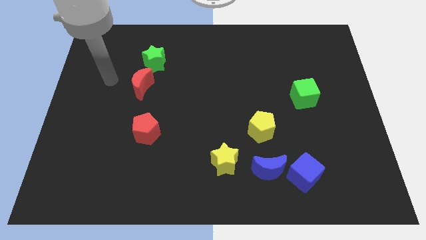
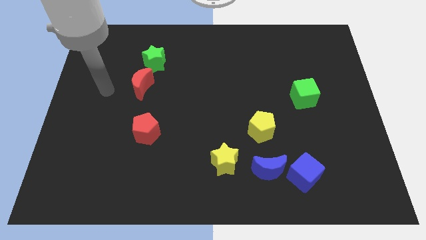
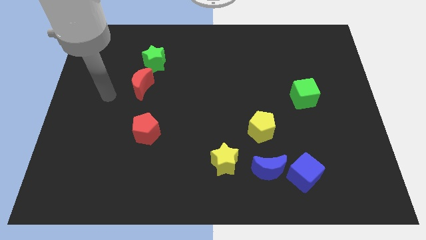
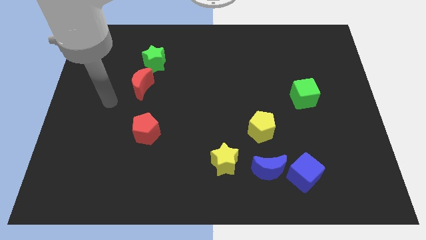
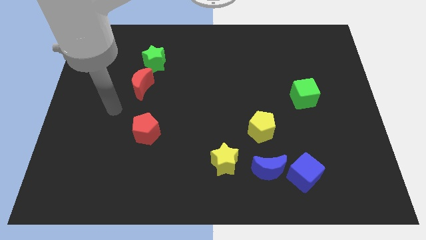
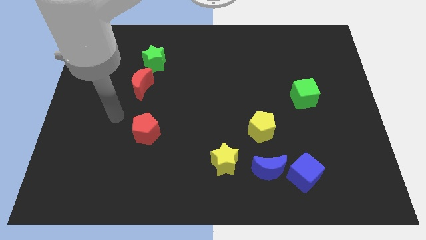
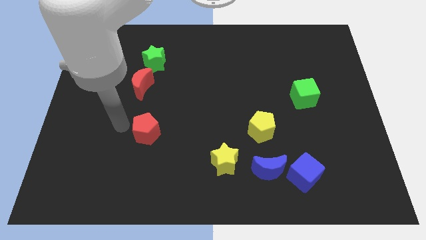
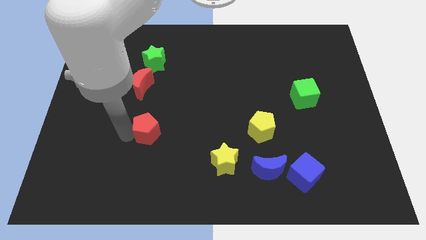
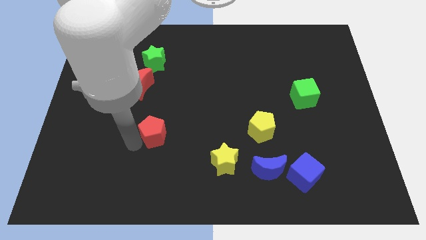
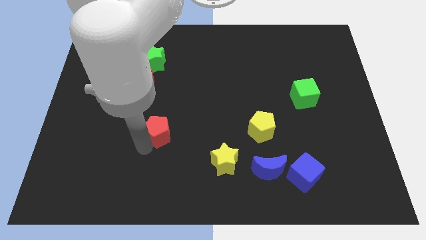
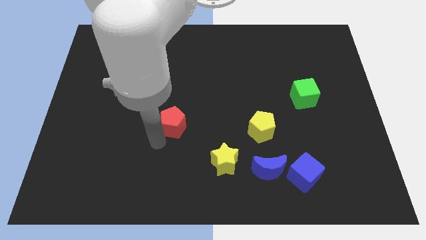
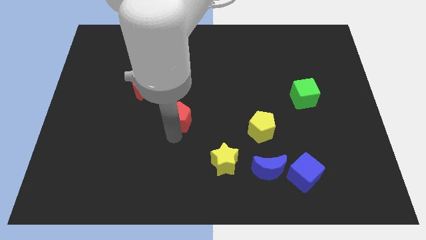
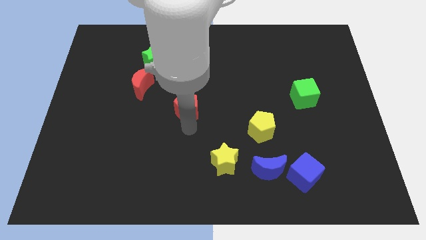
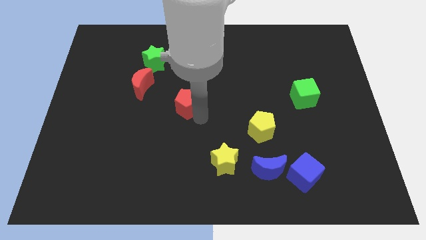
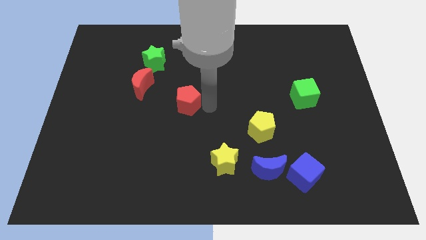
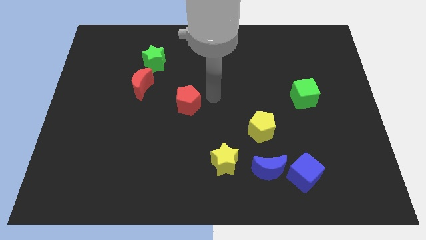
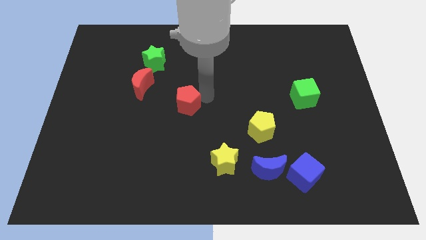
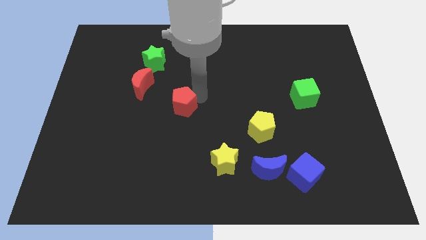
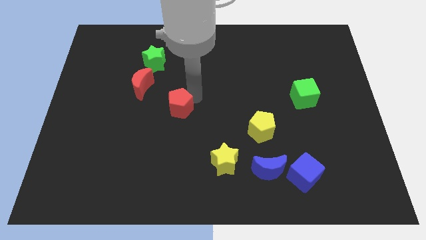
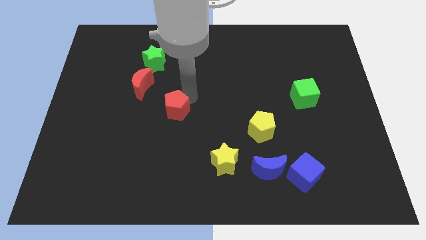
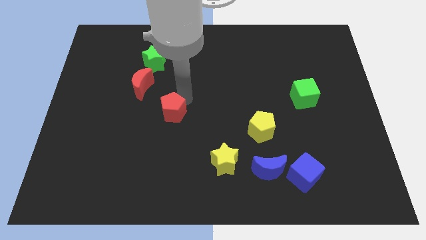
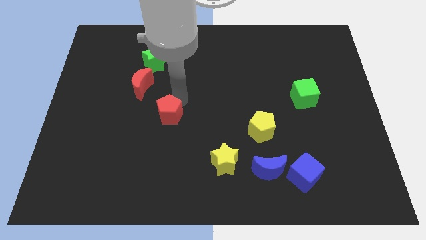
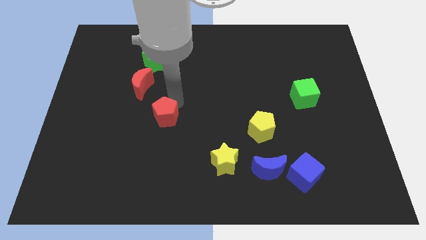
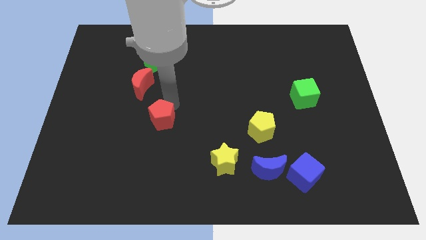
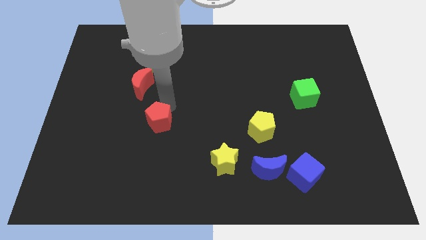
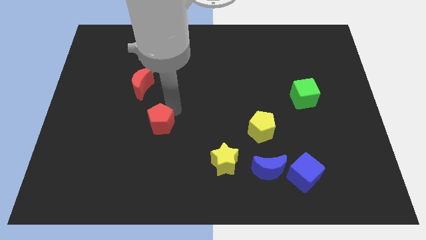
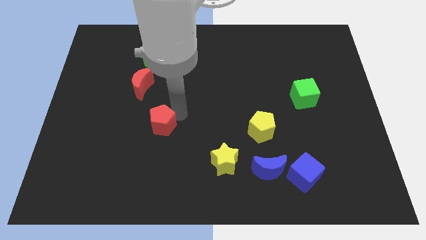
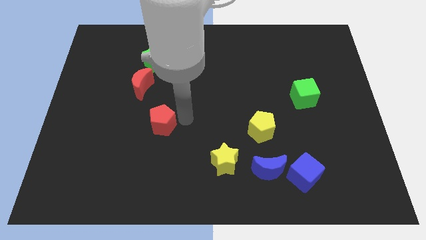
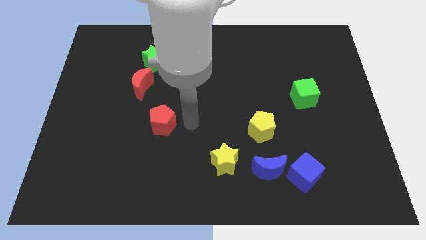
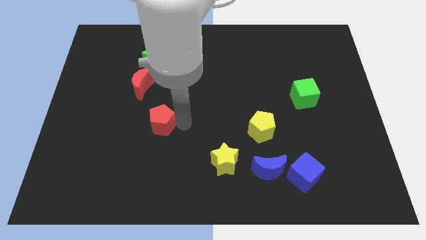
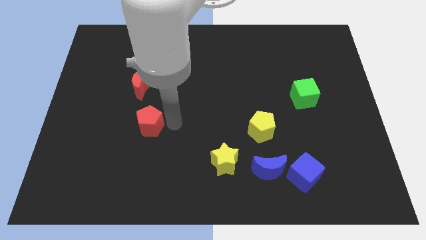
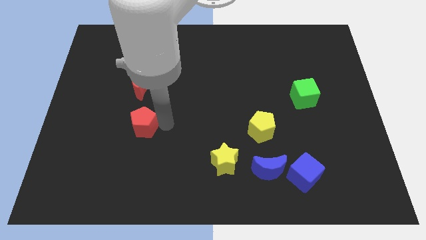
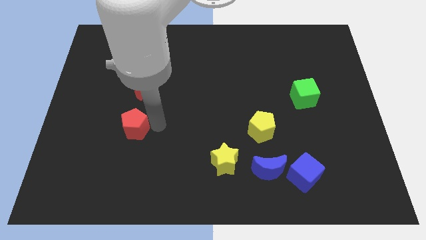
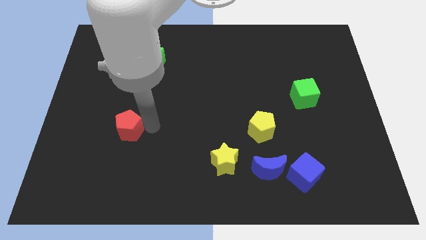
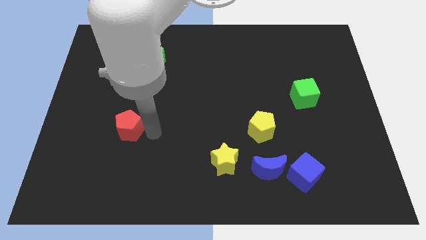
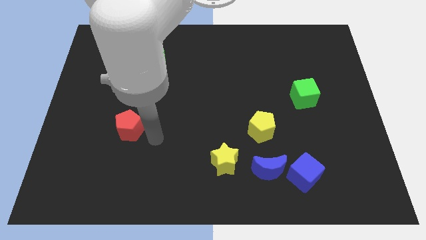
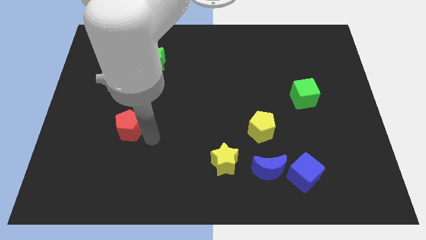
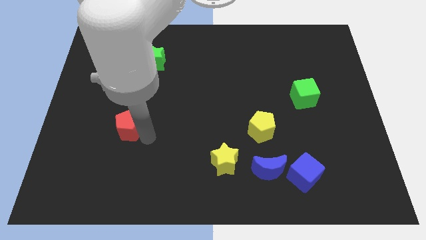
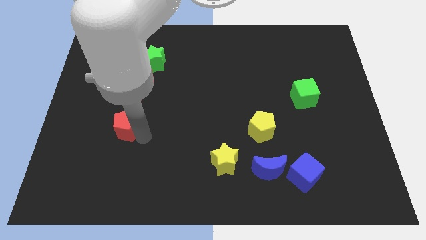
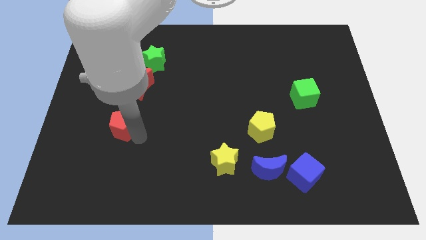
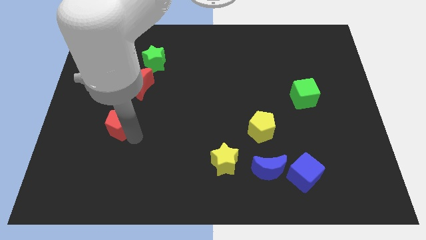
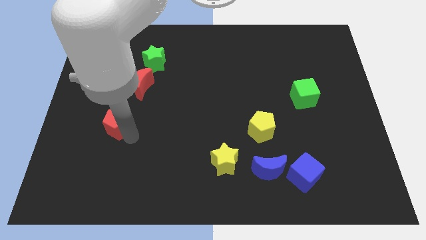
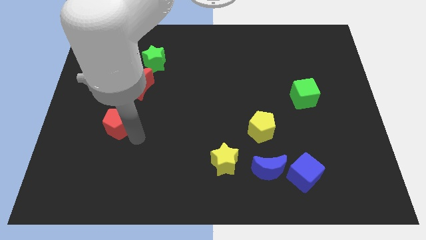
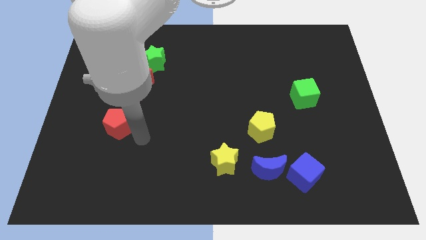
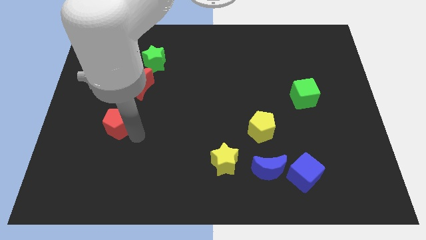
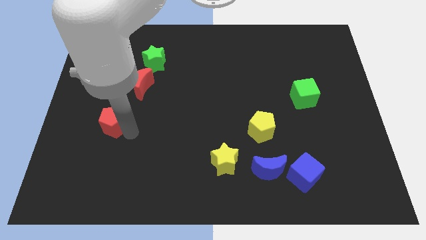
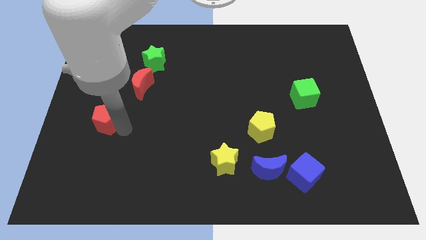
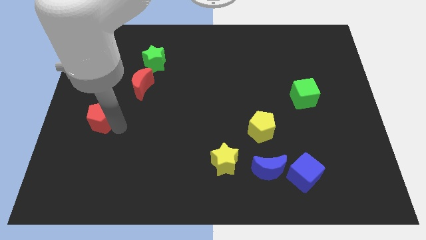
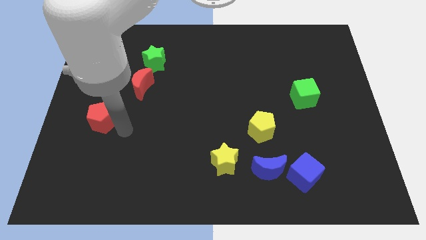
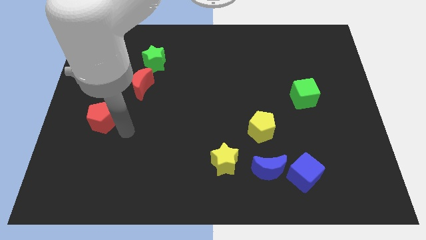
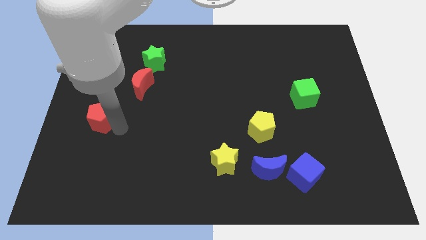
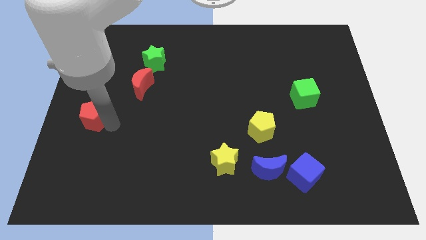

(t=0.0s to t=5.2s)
push the red pentagon to the left side of the board

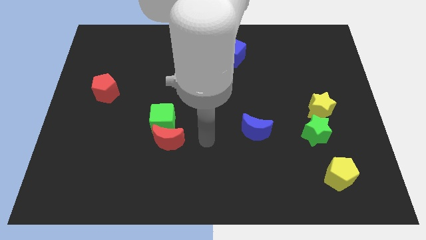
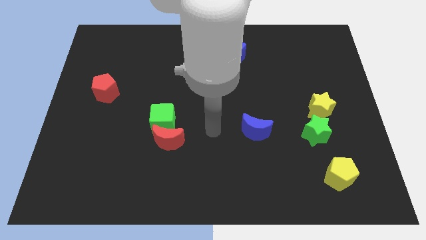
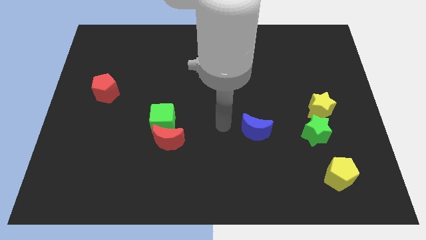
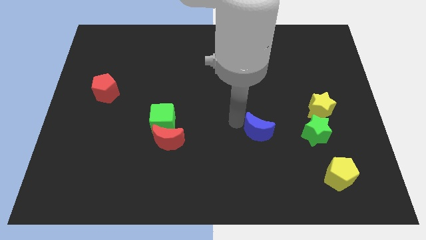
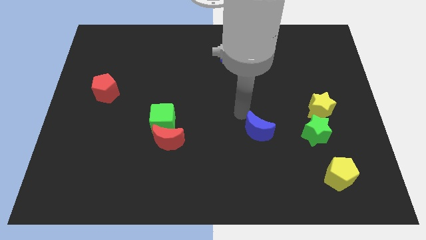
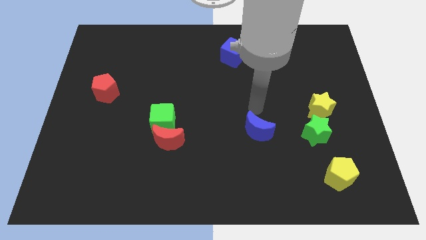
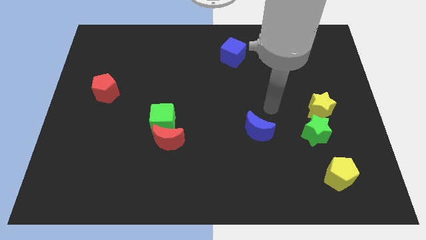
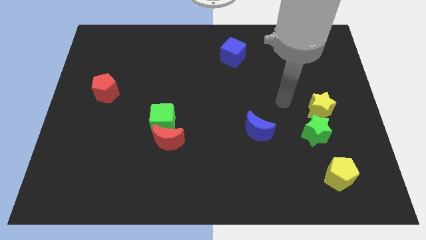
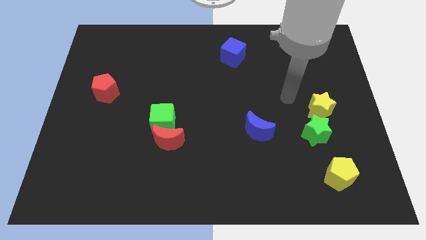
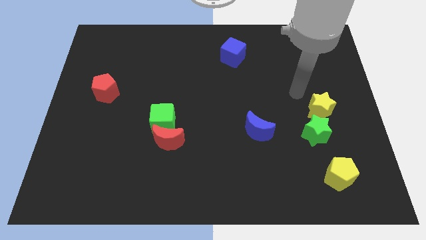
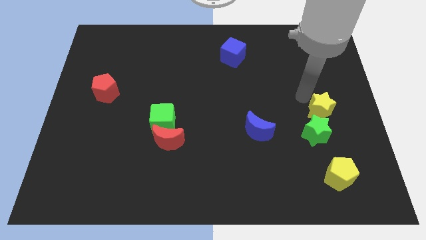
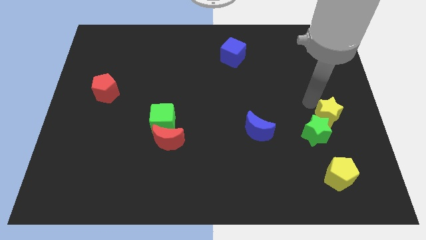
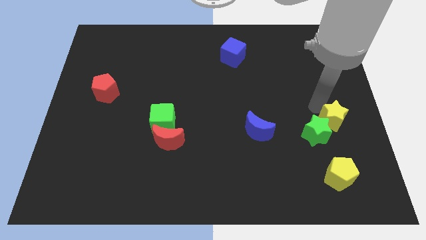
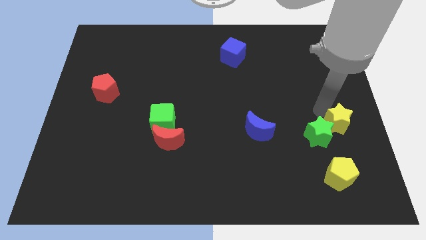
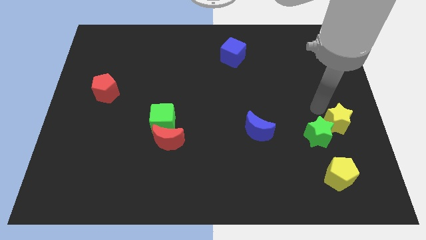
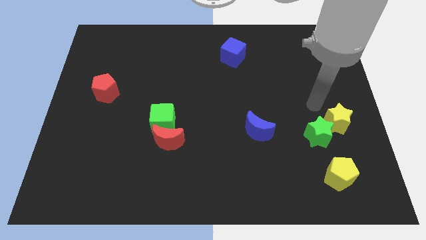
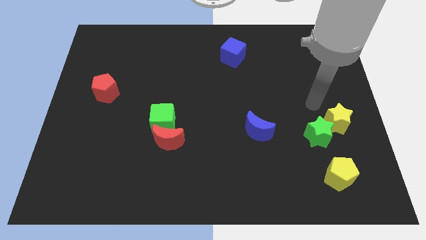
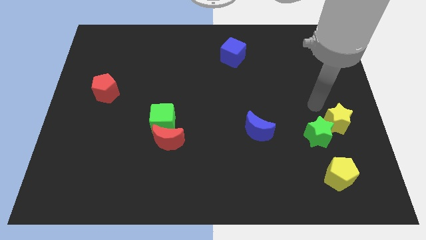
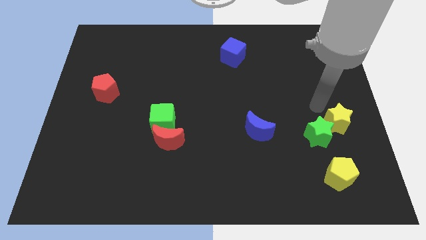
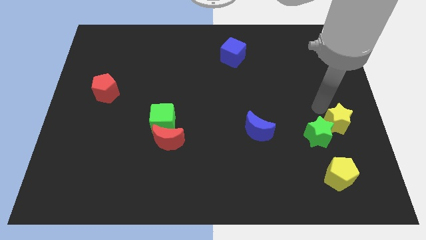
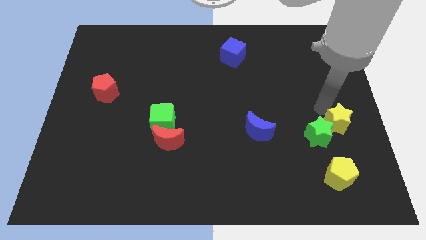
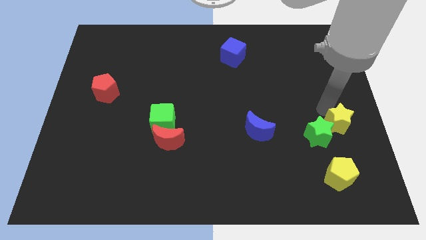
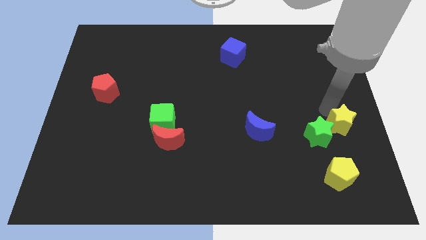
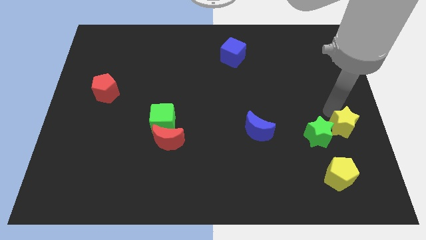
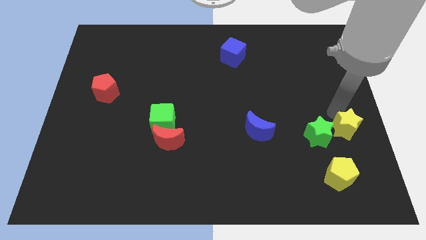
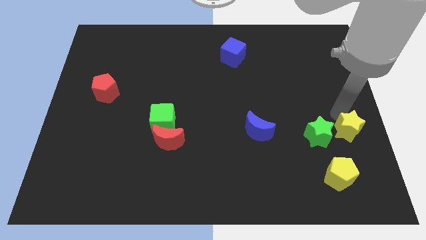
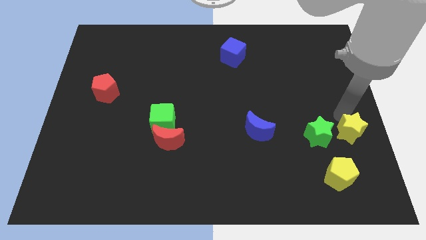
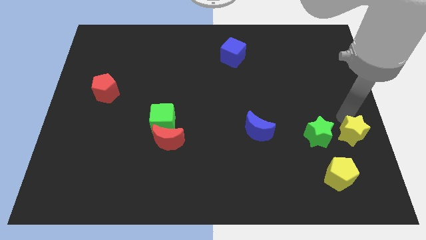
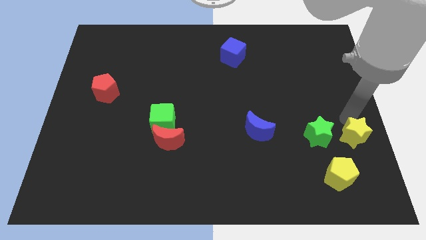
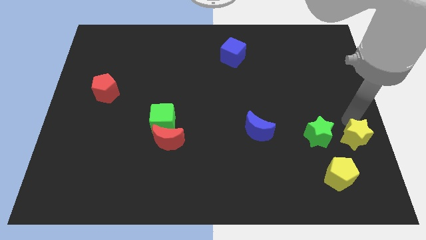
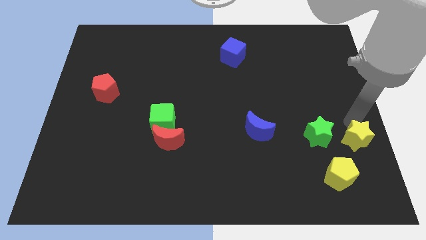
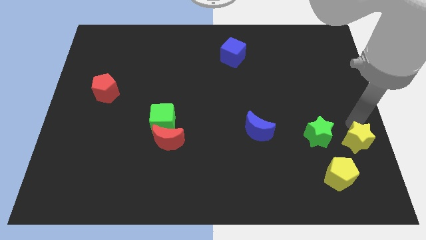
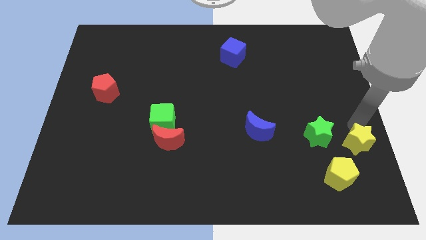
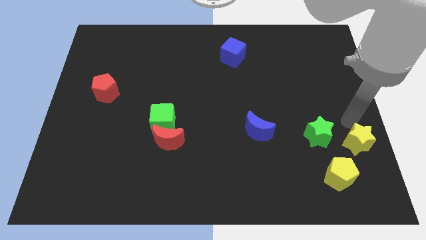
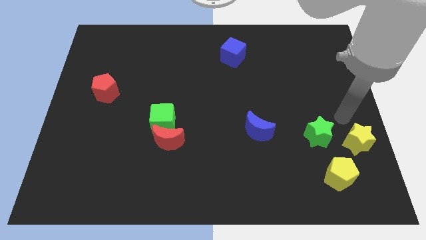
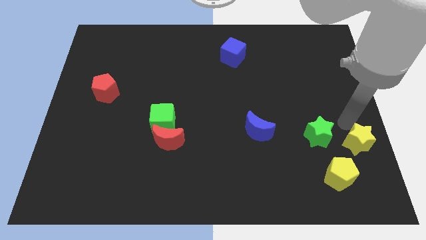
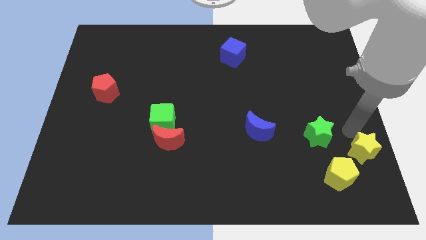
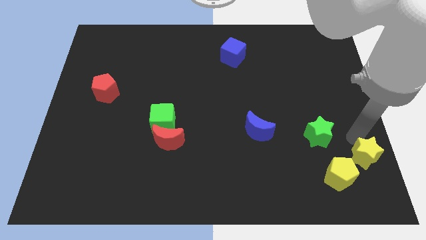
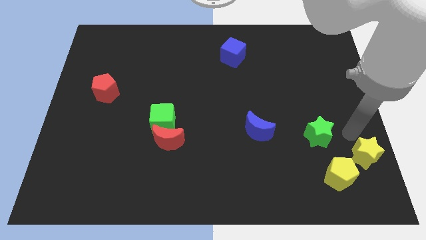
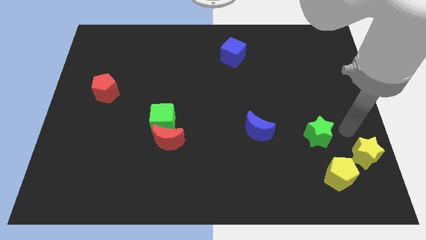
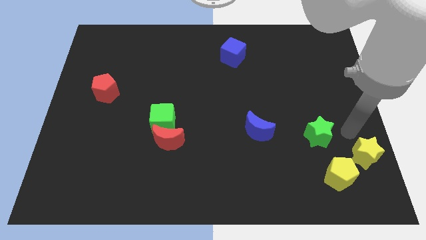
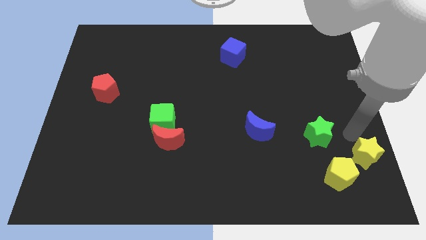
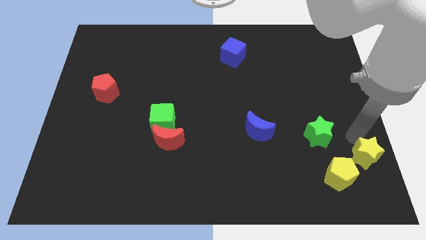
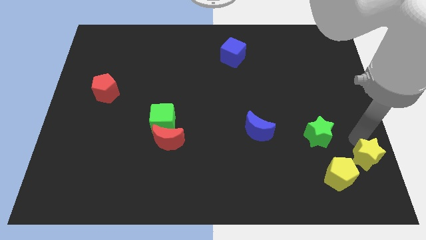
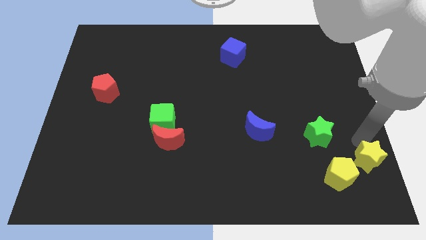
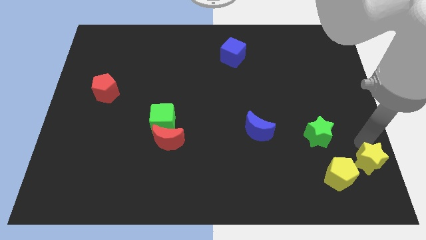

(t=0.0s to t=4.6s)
push the yellow star to the bottom right of the board
